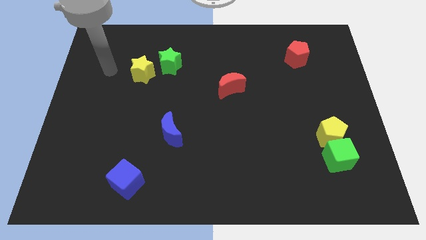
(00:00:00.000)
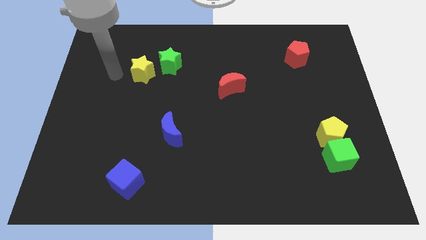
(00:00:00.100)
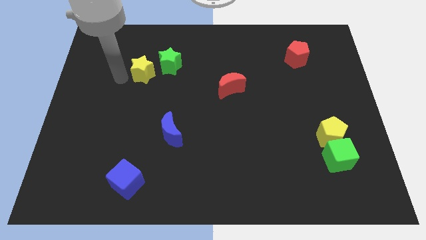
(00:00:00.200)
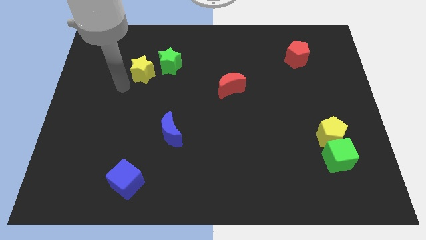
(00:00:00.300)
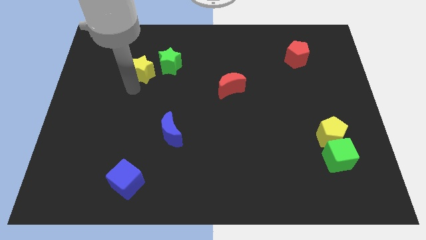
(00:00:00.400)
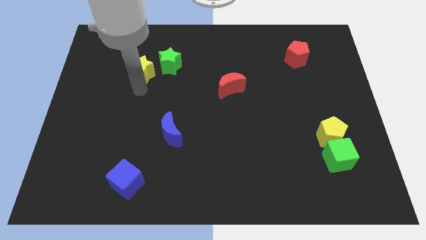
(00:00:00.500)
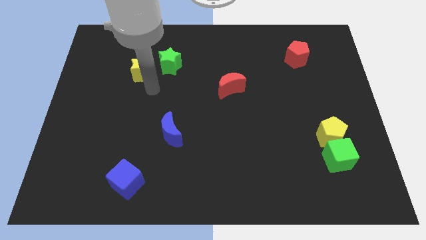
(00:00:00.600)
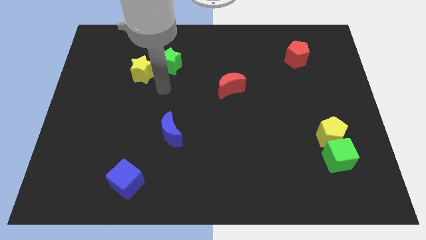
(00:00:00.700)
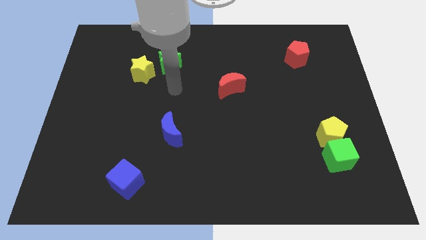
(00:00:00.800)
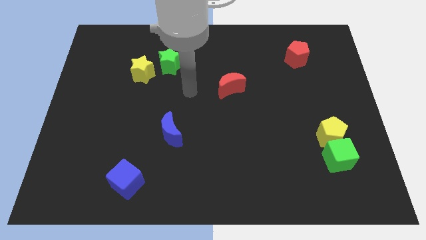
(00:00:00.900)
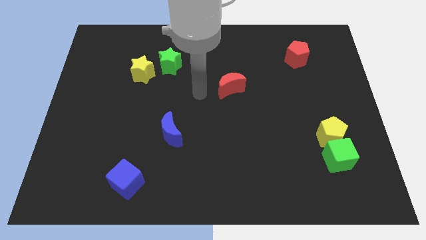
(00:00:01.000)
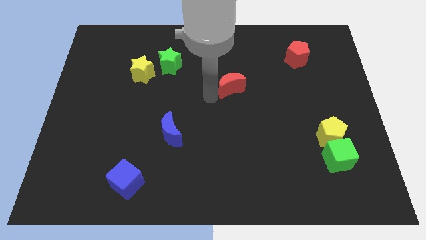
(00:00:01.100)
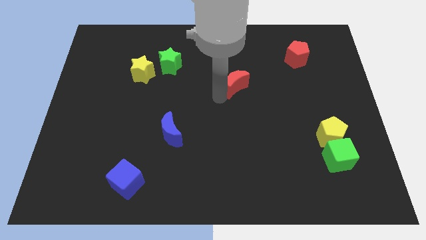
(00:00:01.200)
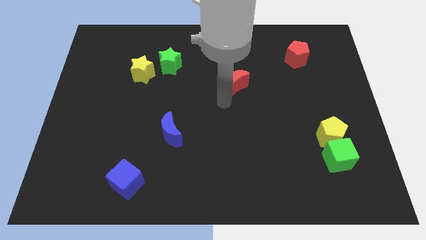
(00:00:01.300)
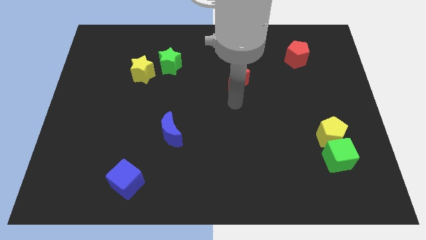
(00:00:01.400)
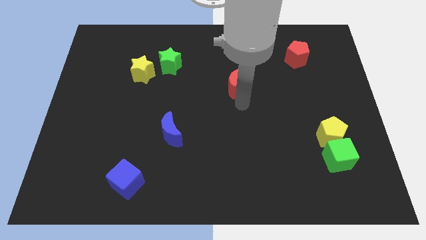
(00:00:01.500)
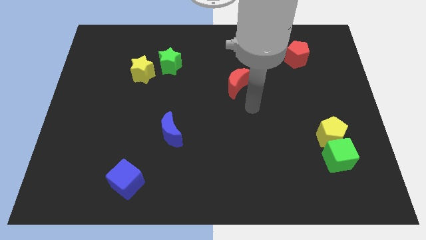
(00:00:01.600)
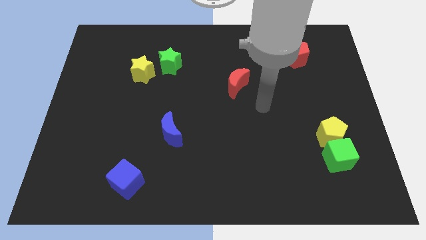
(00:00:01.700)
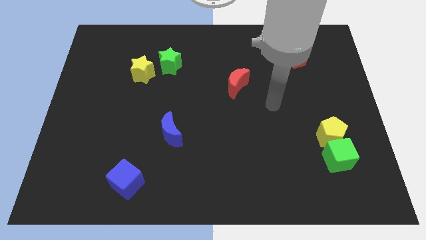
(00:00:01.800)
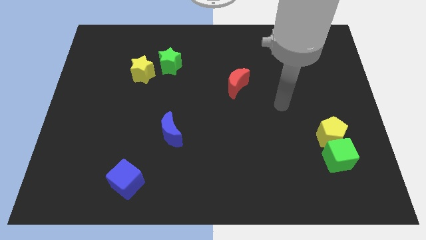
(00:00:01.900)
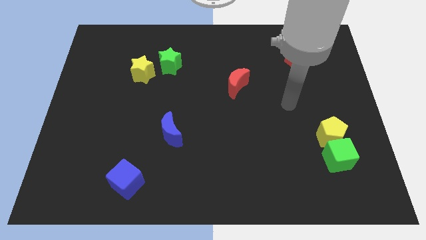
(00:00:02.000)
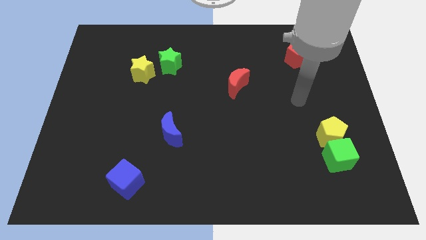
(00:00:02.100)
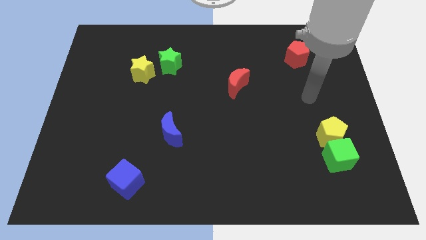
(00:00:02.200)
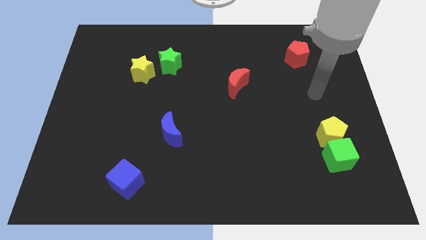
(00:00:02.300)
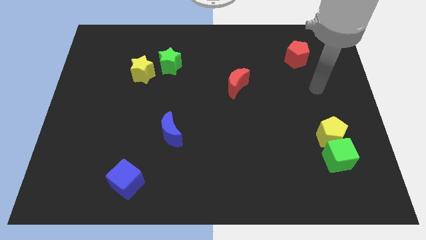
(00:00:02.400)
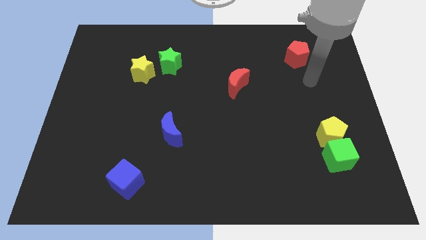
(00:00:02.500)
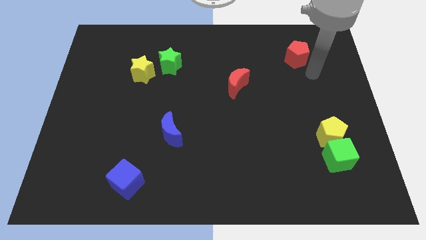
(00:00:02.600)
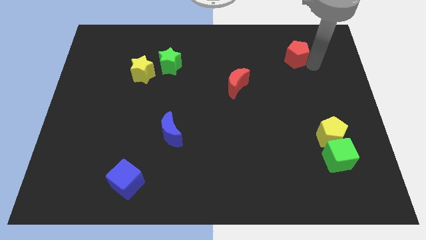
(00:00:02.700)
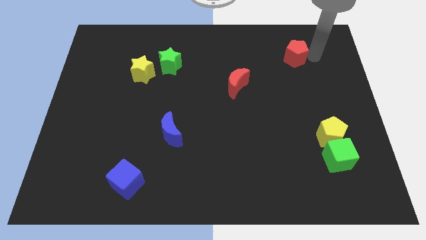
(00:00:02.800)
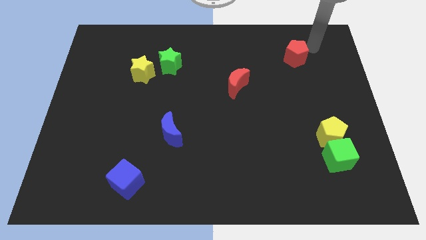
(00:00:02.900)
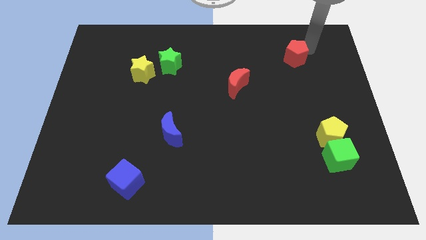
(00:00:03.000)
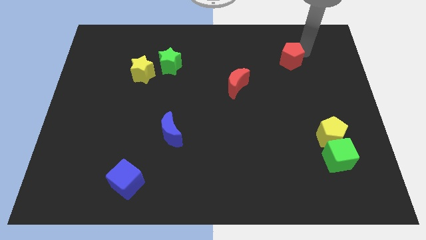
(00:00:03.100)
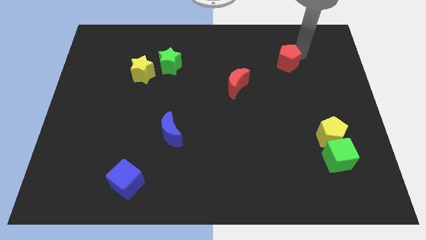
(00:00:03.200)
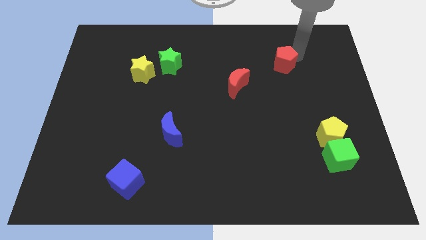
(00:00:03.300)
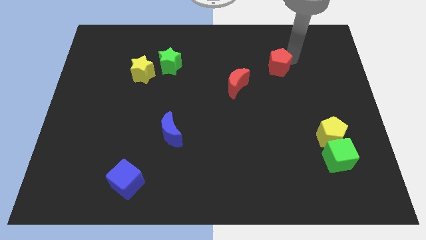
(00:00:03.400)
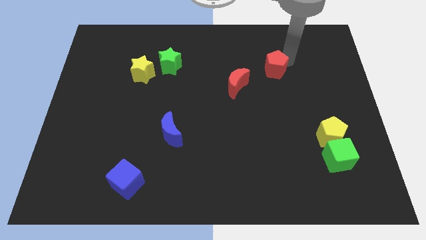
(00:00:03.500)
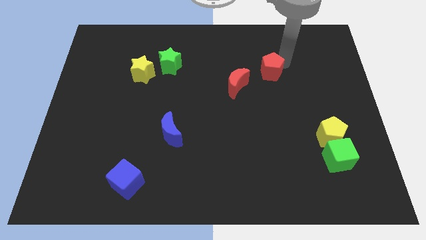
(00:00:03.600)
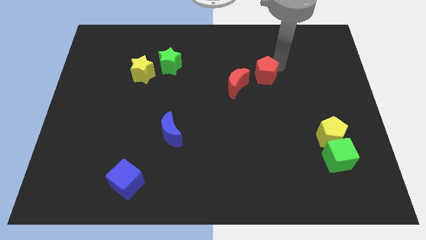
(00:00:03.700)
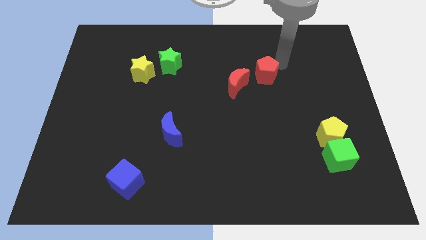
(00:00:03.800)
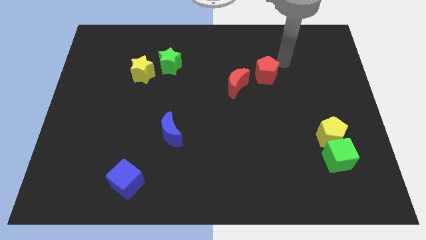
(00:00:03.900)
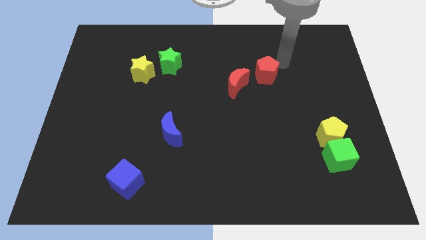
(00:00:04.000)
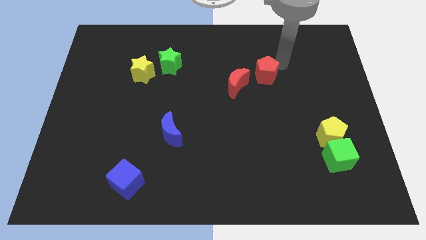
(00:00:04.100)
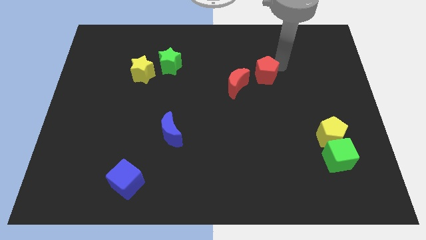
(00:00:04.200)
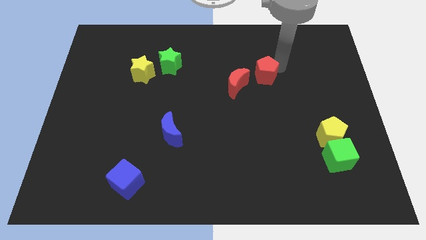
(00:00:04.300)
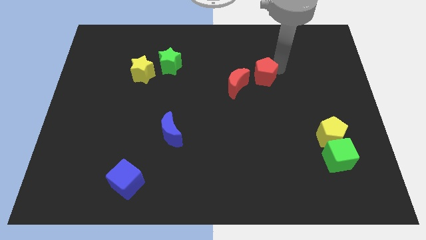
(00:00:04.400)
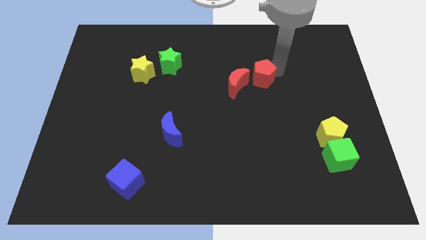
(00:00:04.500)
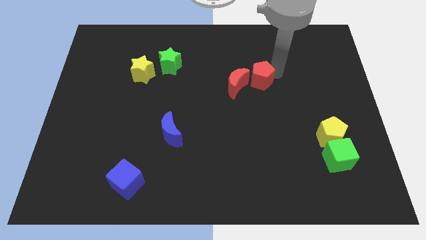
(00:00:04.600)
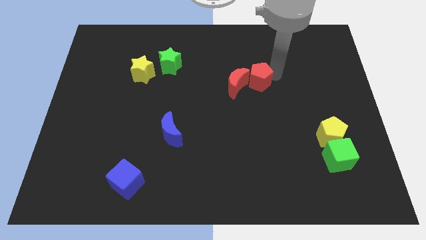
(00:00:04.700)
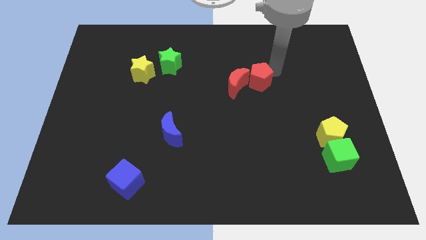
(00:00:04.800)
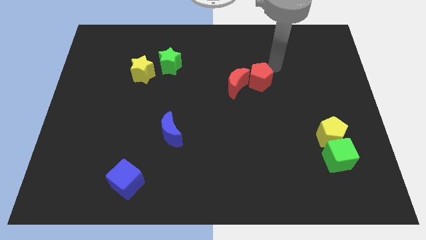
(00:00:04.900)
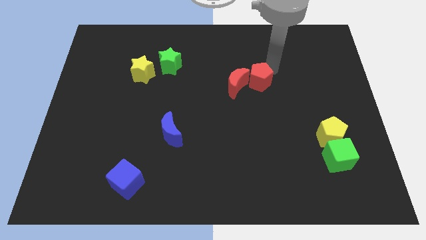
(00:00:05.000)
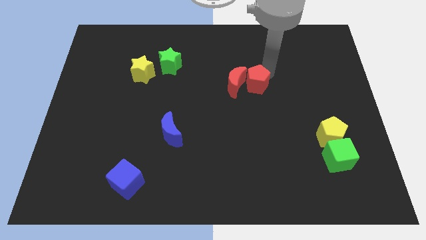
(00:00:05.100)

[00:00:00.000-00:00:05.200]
move the red pentagon to the middle of the board
